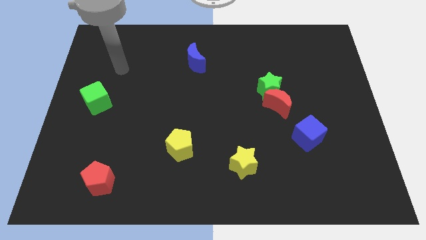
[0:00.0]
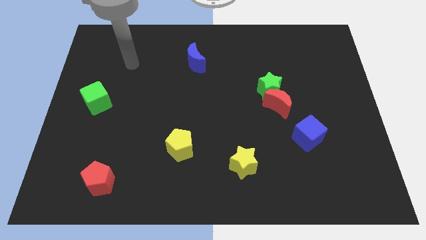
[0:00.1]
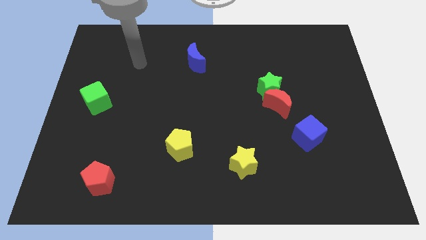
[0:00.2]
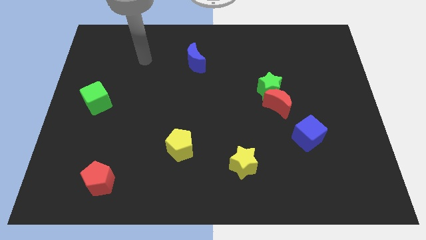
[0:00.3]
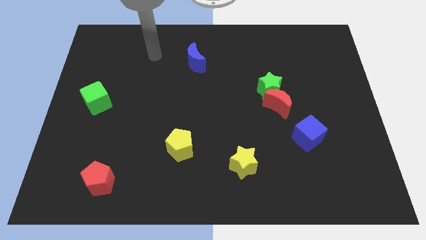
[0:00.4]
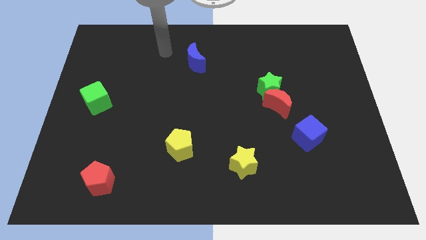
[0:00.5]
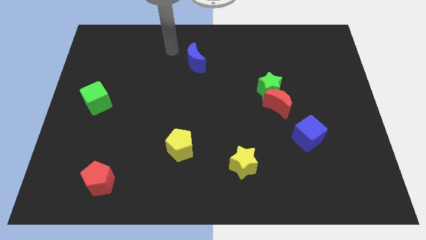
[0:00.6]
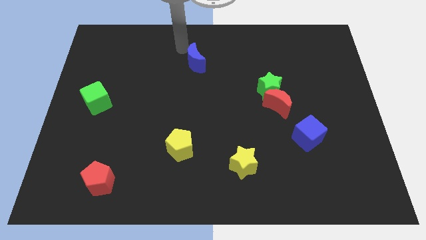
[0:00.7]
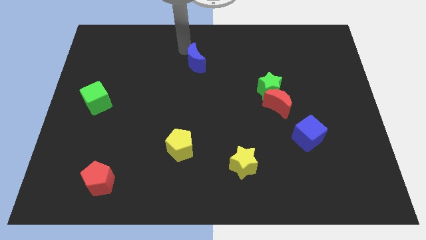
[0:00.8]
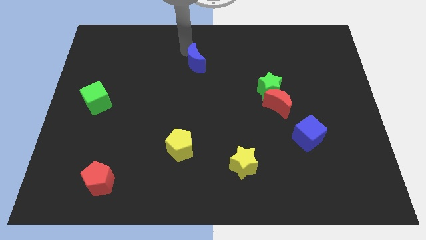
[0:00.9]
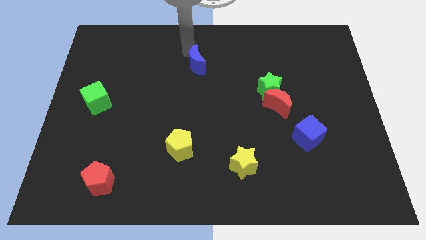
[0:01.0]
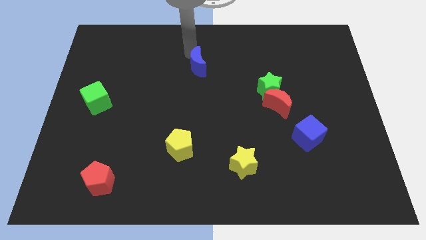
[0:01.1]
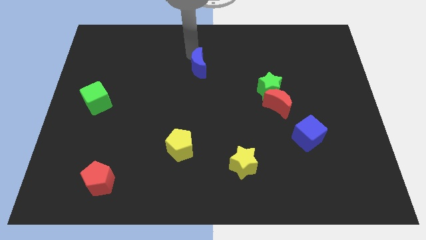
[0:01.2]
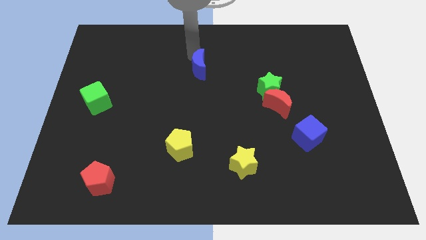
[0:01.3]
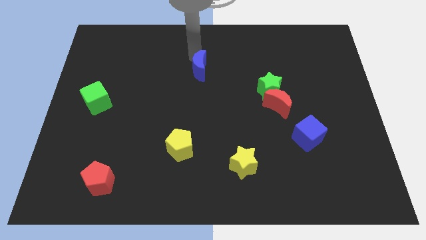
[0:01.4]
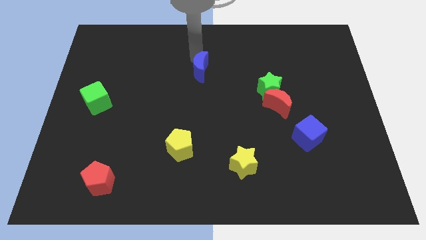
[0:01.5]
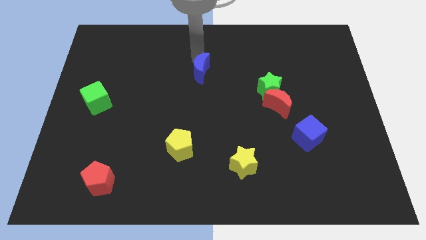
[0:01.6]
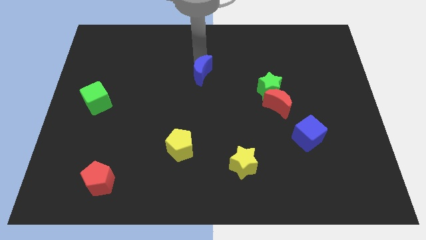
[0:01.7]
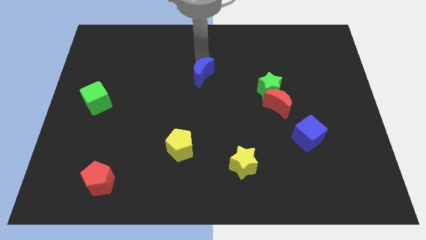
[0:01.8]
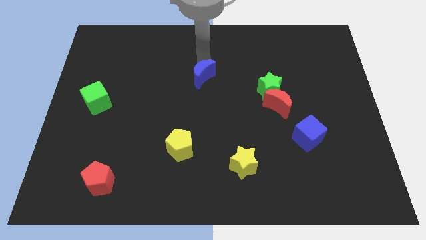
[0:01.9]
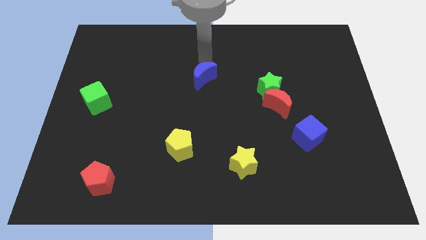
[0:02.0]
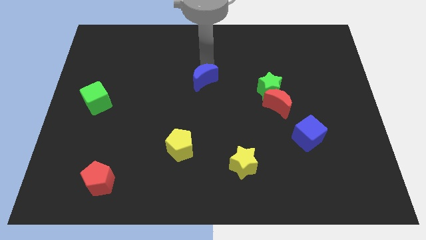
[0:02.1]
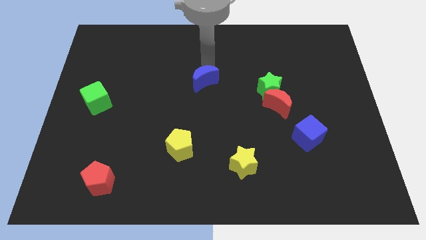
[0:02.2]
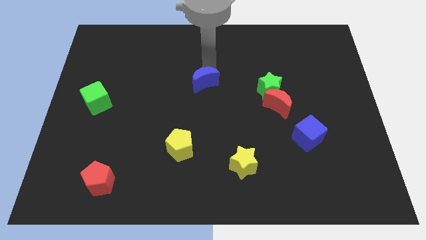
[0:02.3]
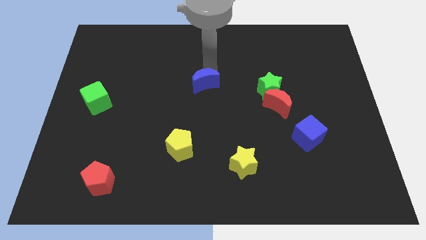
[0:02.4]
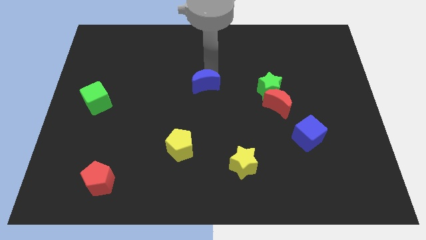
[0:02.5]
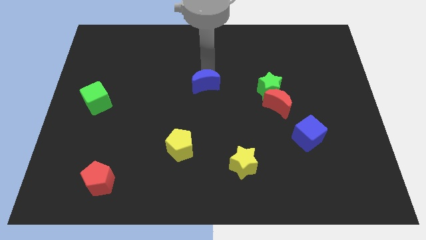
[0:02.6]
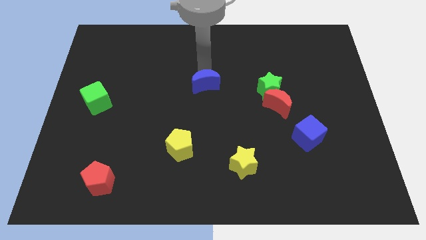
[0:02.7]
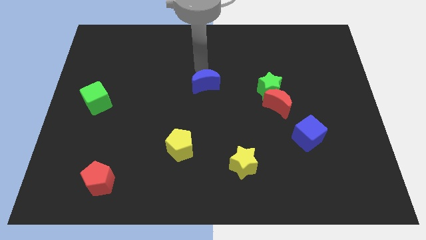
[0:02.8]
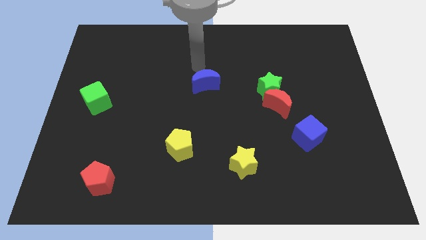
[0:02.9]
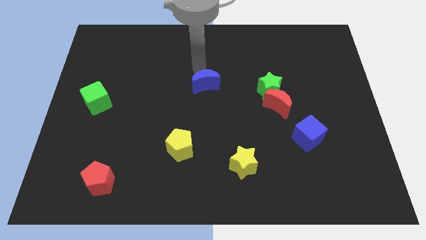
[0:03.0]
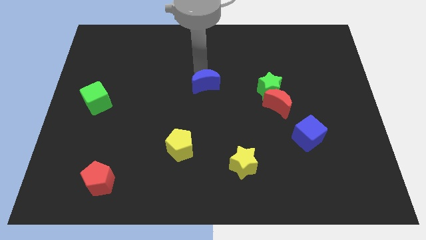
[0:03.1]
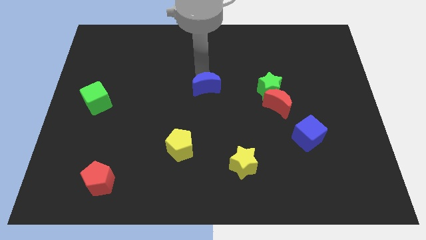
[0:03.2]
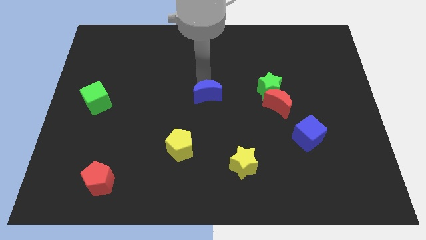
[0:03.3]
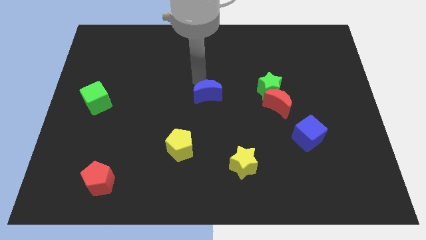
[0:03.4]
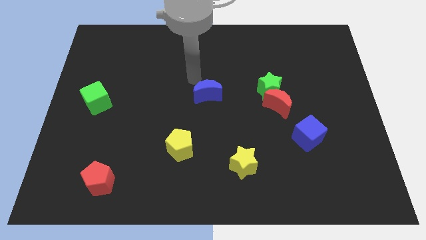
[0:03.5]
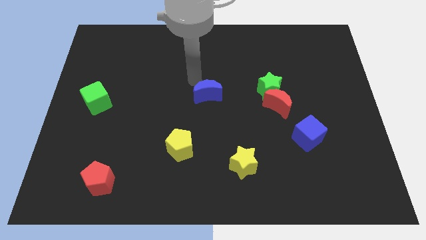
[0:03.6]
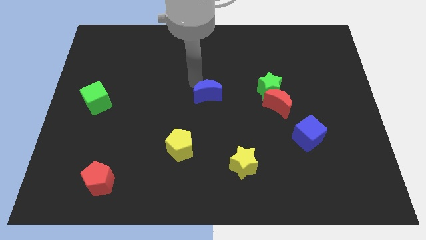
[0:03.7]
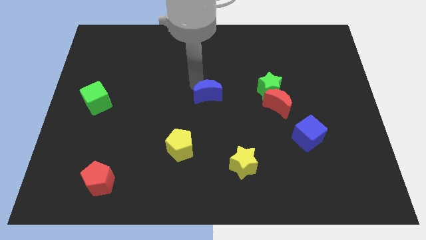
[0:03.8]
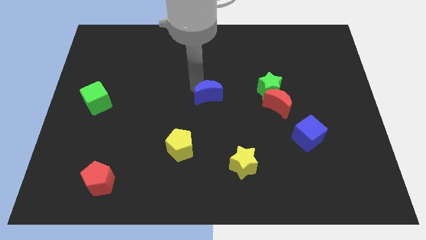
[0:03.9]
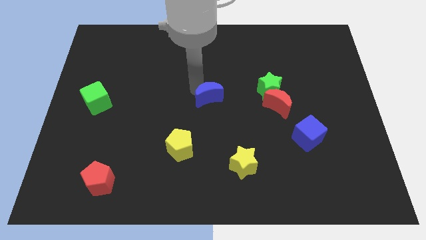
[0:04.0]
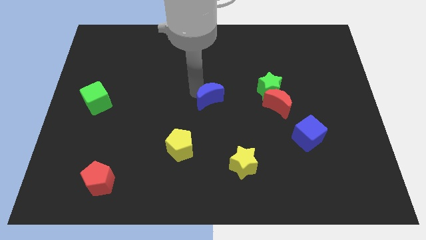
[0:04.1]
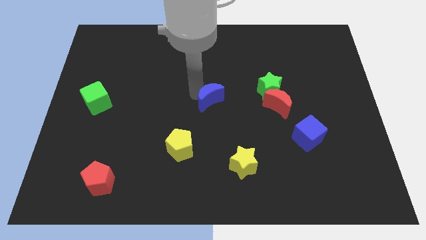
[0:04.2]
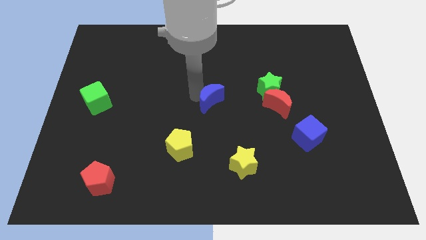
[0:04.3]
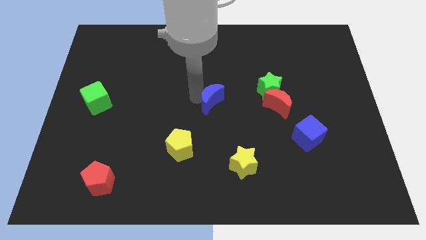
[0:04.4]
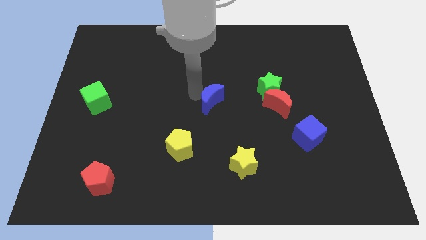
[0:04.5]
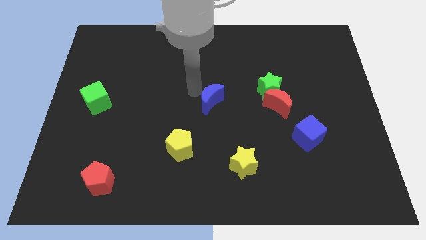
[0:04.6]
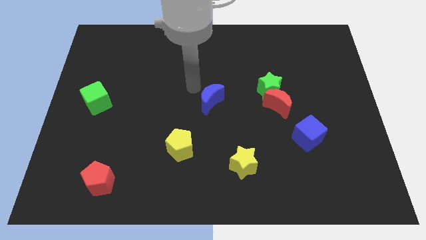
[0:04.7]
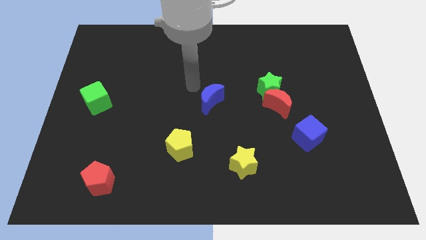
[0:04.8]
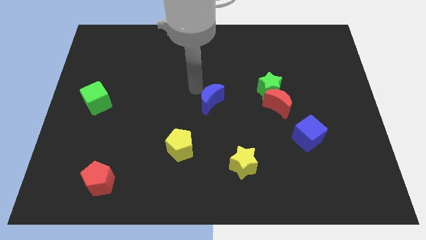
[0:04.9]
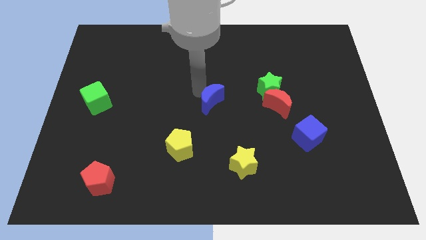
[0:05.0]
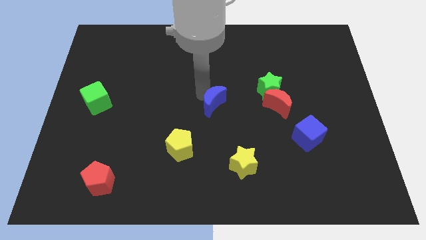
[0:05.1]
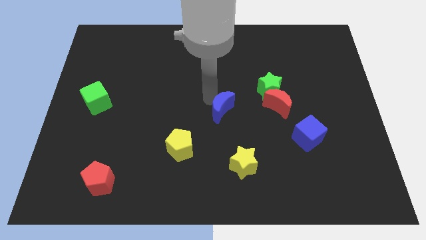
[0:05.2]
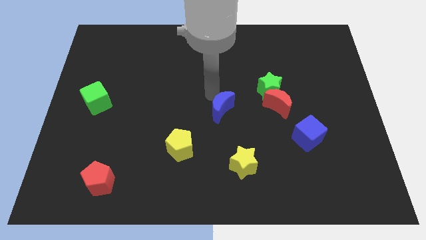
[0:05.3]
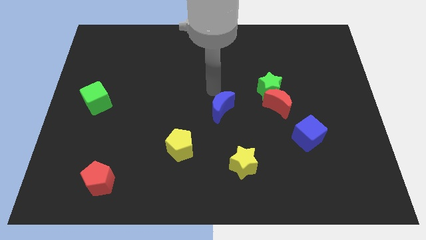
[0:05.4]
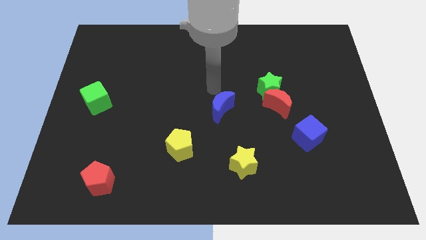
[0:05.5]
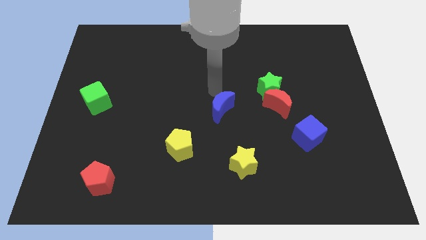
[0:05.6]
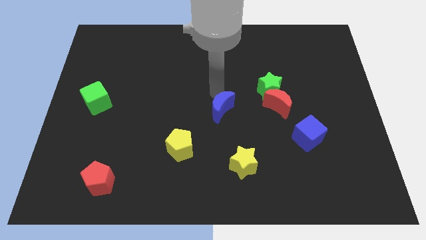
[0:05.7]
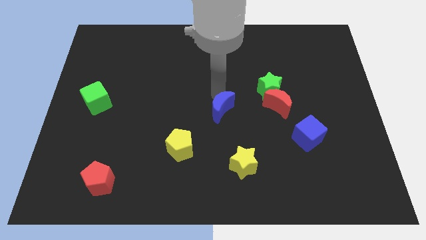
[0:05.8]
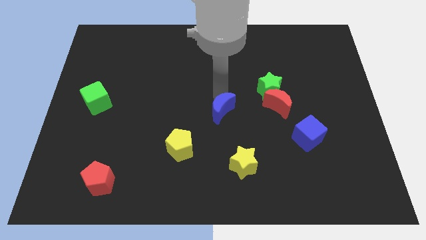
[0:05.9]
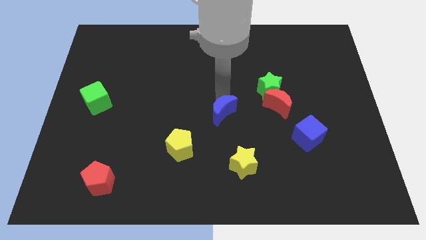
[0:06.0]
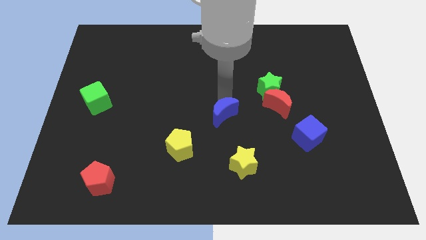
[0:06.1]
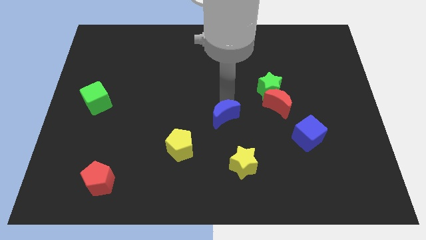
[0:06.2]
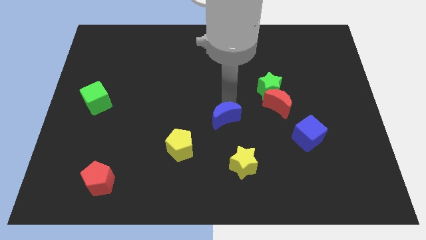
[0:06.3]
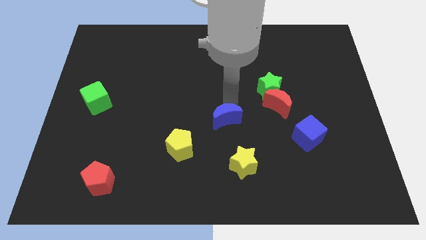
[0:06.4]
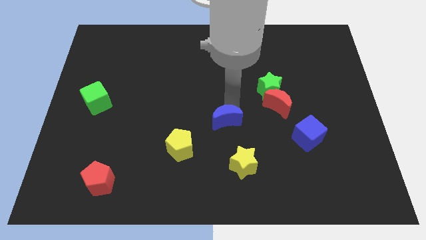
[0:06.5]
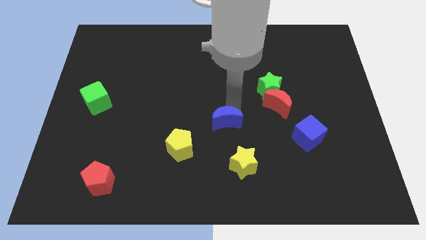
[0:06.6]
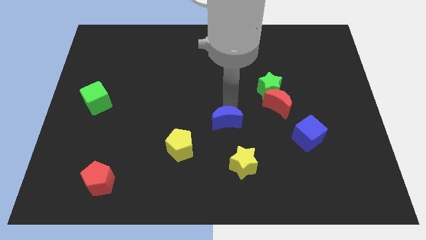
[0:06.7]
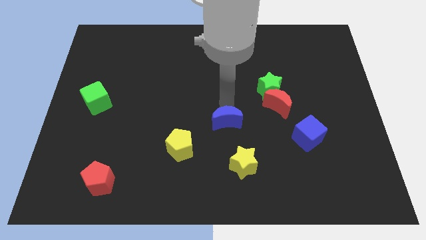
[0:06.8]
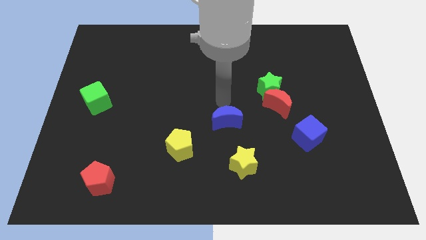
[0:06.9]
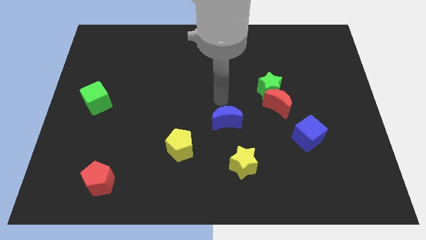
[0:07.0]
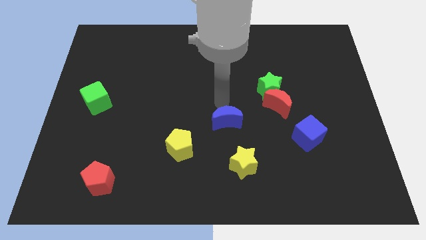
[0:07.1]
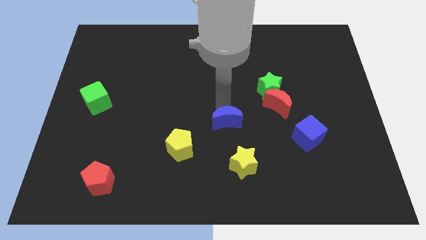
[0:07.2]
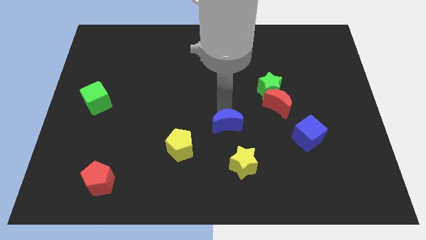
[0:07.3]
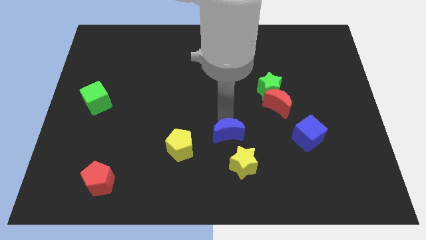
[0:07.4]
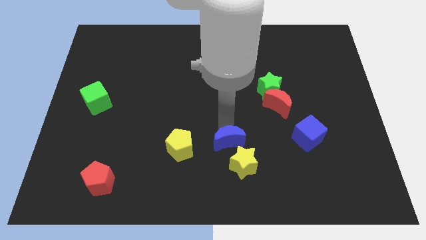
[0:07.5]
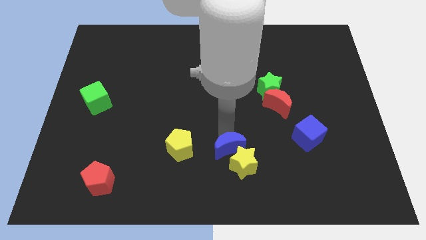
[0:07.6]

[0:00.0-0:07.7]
put the blue moon next to the yellow star
